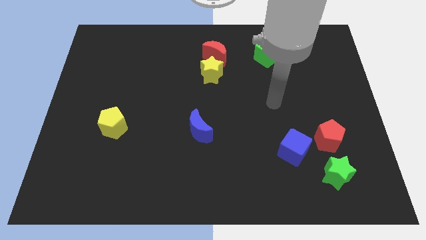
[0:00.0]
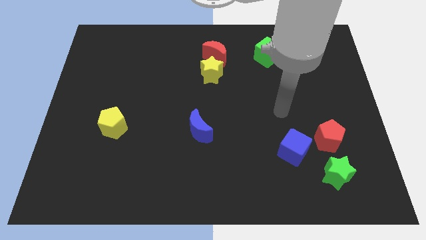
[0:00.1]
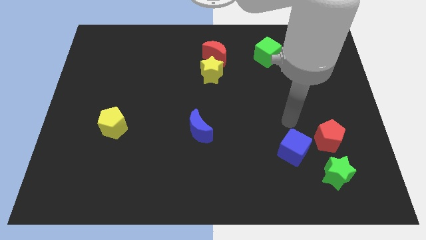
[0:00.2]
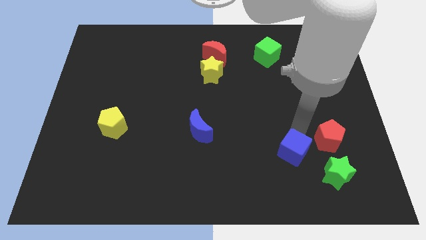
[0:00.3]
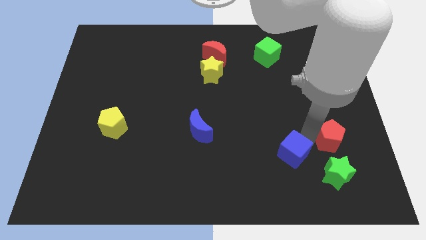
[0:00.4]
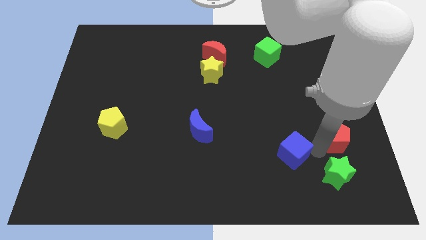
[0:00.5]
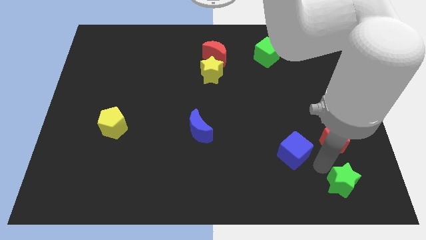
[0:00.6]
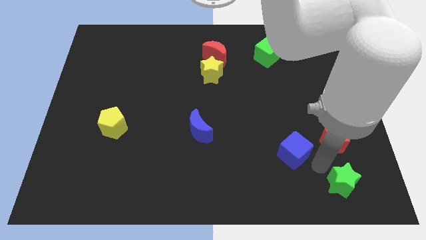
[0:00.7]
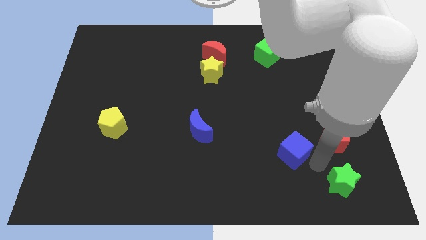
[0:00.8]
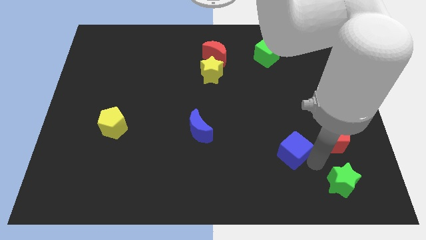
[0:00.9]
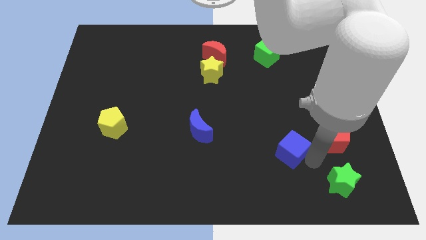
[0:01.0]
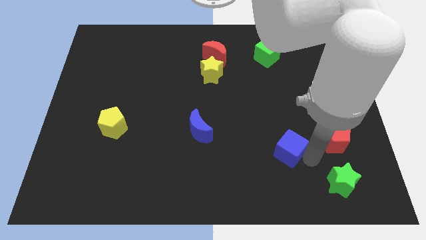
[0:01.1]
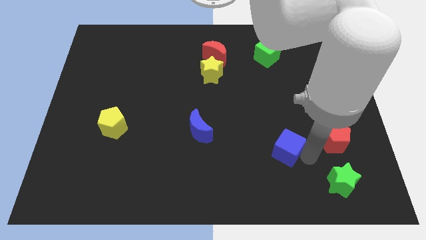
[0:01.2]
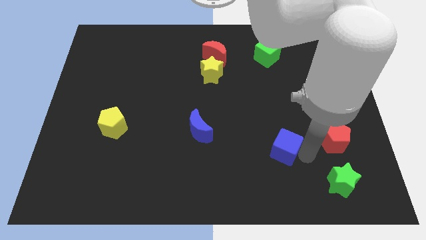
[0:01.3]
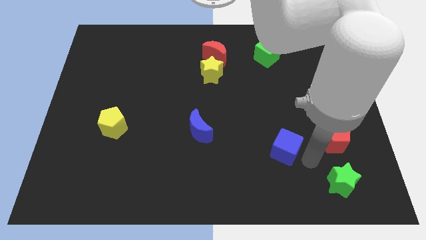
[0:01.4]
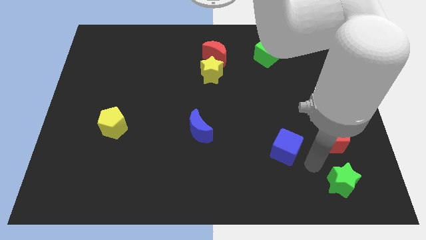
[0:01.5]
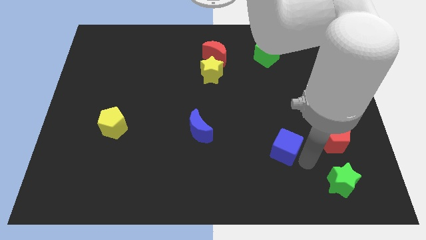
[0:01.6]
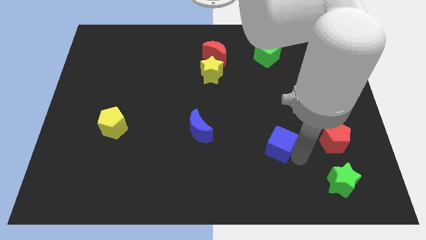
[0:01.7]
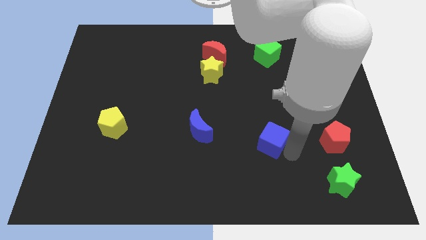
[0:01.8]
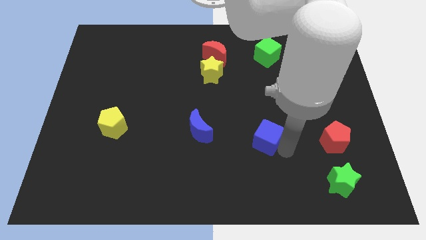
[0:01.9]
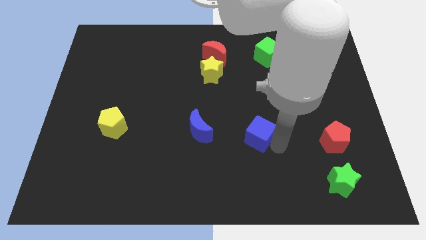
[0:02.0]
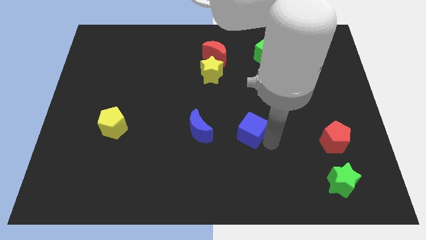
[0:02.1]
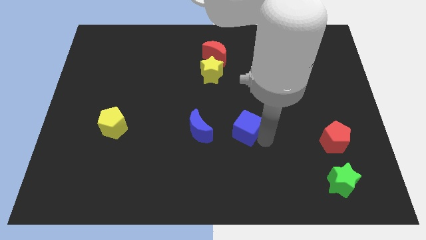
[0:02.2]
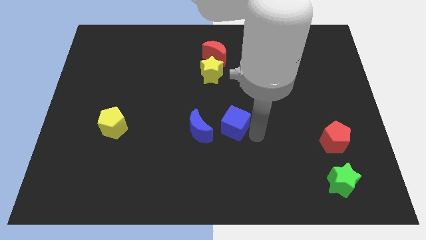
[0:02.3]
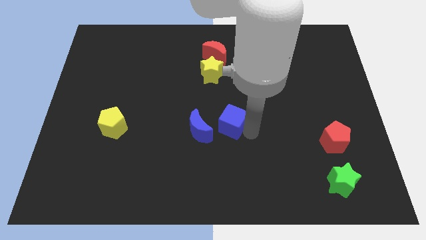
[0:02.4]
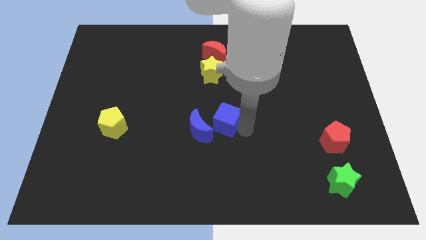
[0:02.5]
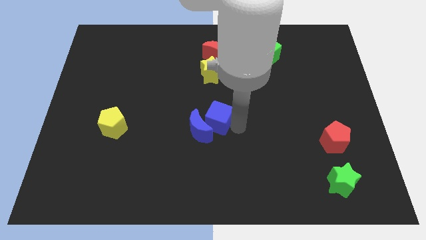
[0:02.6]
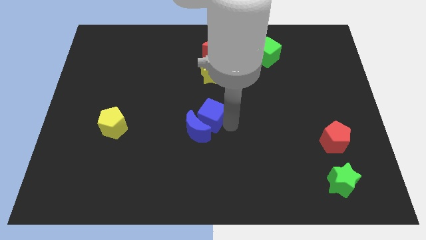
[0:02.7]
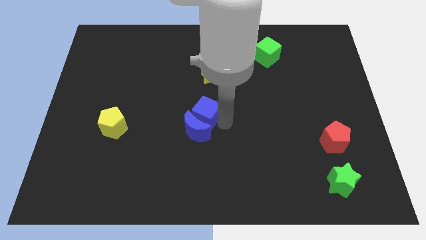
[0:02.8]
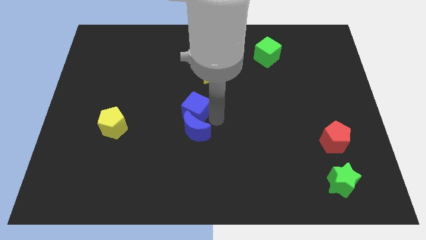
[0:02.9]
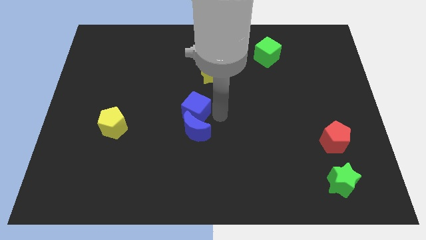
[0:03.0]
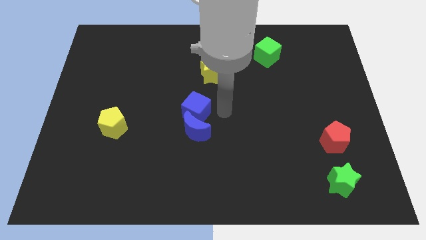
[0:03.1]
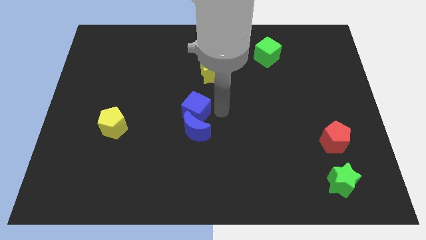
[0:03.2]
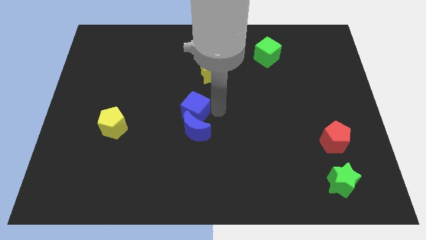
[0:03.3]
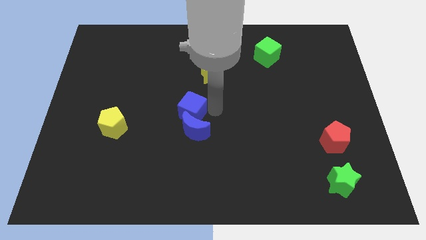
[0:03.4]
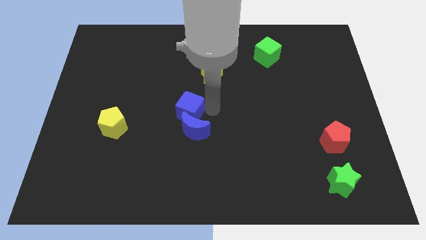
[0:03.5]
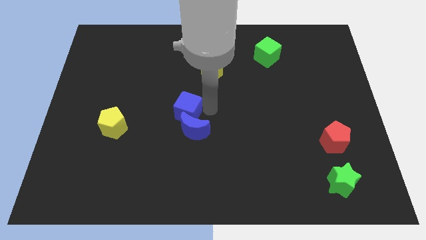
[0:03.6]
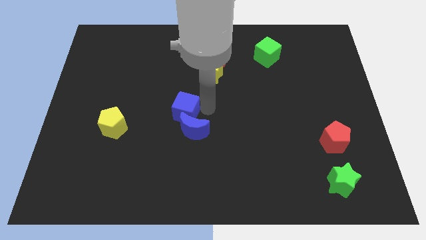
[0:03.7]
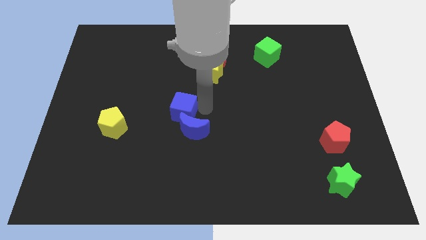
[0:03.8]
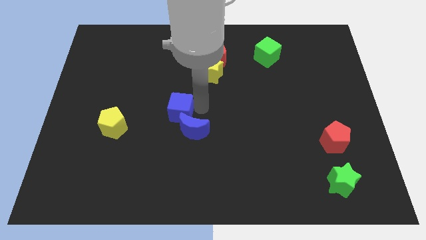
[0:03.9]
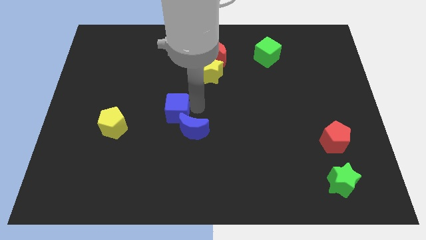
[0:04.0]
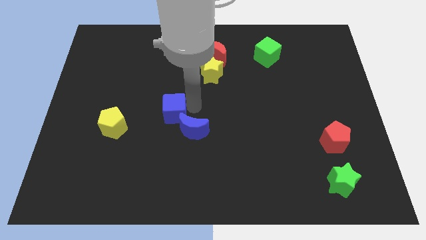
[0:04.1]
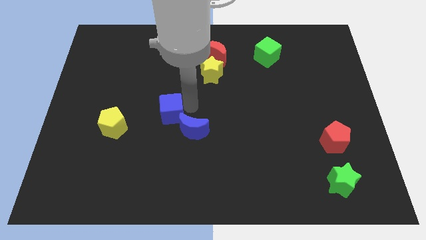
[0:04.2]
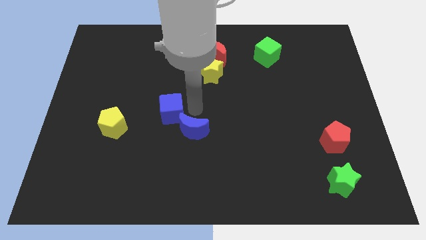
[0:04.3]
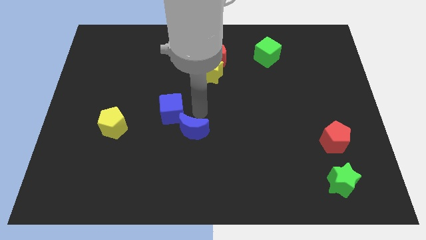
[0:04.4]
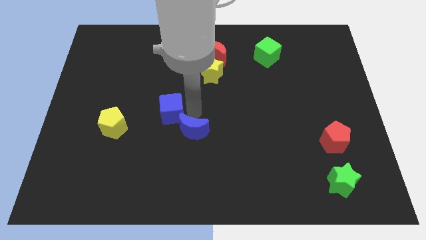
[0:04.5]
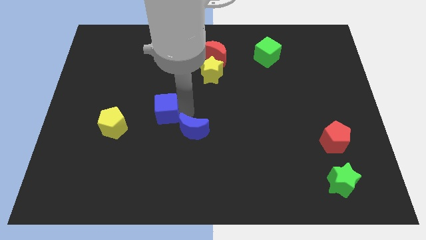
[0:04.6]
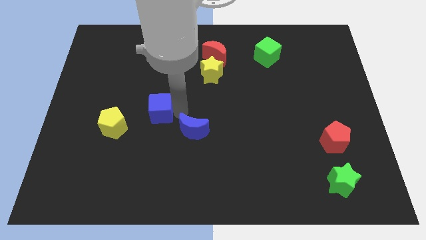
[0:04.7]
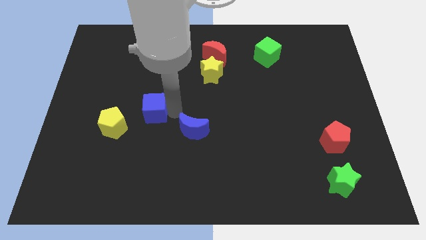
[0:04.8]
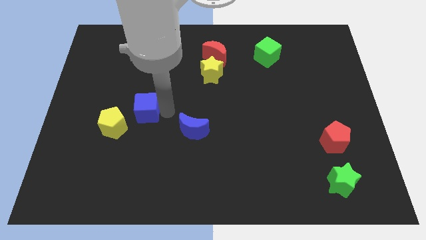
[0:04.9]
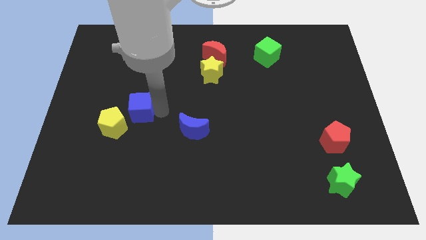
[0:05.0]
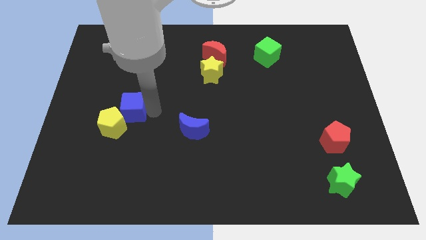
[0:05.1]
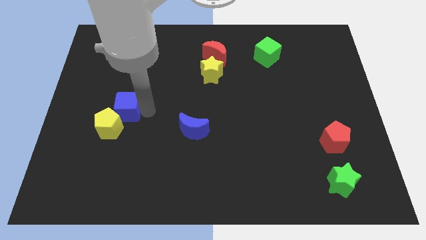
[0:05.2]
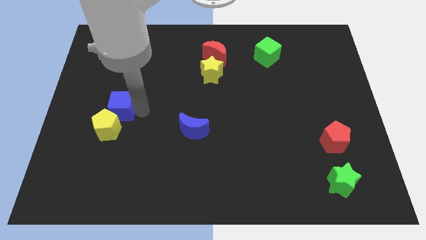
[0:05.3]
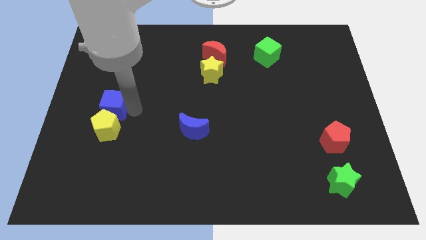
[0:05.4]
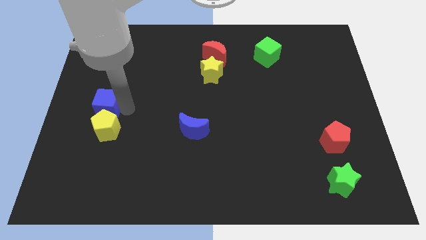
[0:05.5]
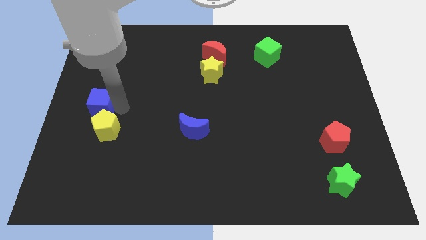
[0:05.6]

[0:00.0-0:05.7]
slide the blue cube to the left side

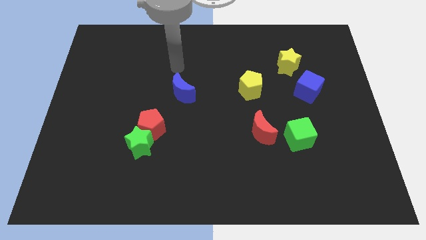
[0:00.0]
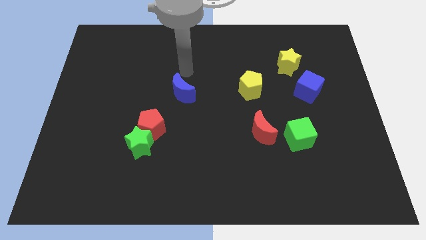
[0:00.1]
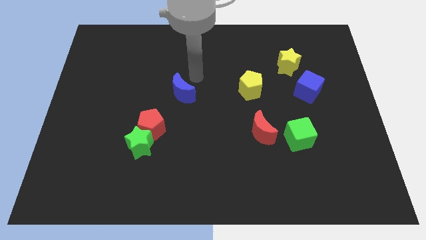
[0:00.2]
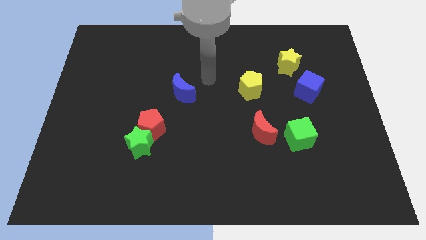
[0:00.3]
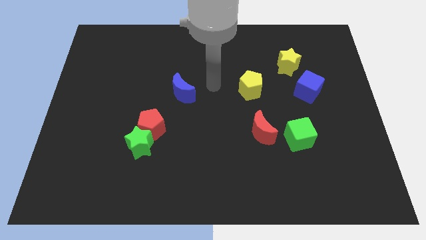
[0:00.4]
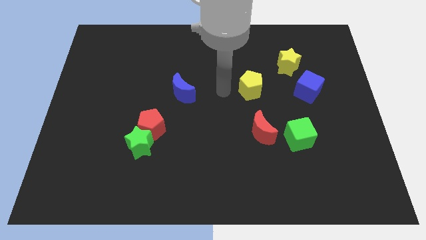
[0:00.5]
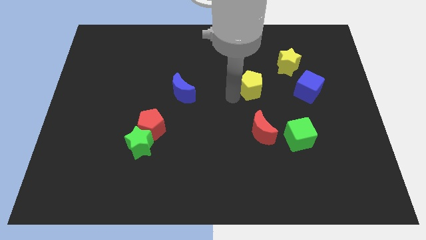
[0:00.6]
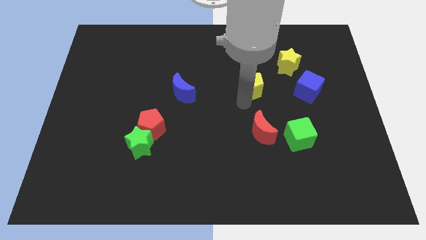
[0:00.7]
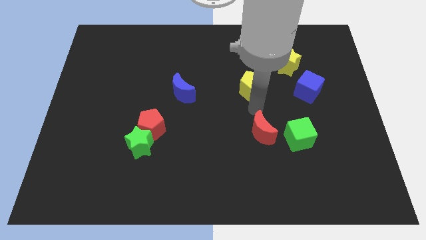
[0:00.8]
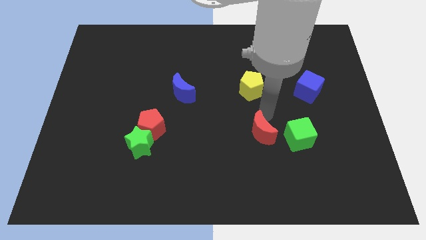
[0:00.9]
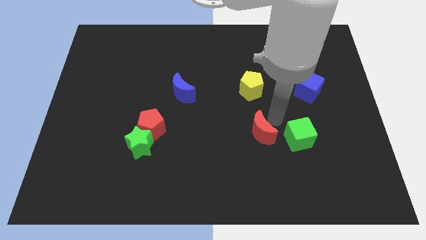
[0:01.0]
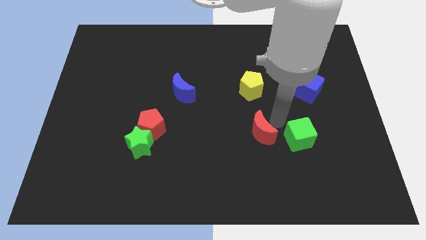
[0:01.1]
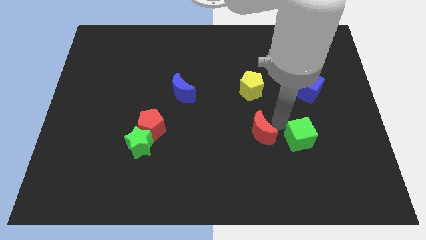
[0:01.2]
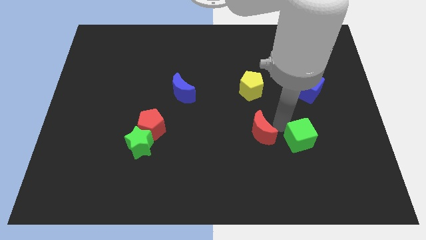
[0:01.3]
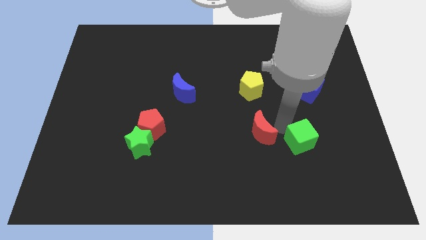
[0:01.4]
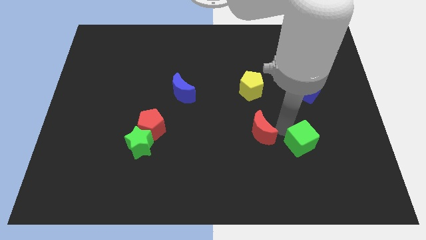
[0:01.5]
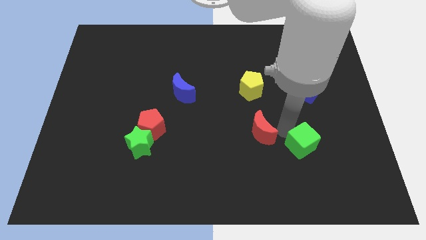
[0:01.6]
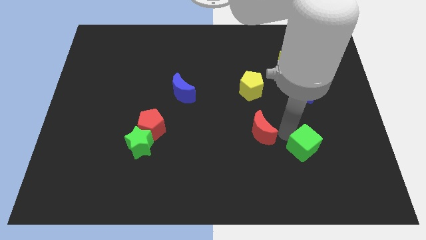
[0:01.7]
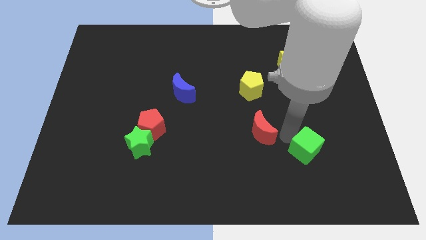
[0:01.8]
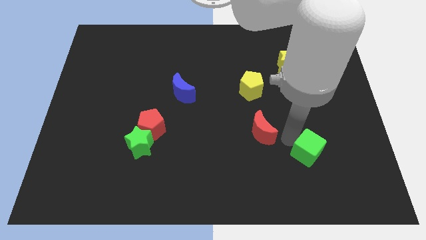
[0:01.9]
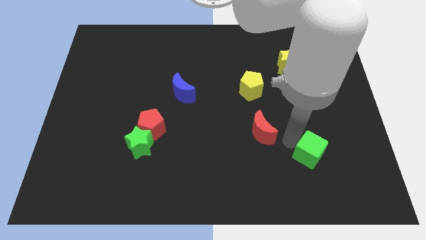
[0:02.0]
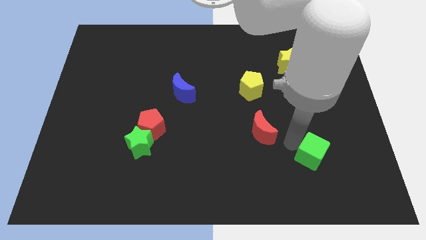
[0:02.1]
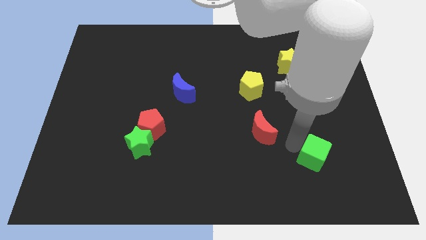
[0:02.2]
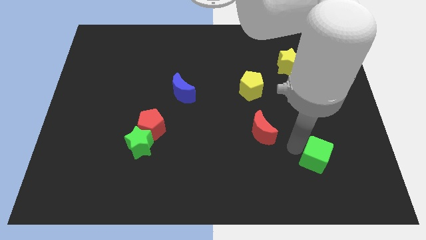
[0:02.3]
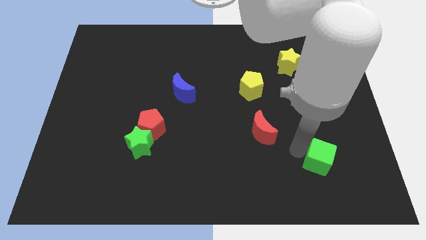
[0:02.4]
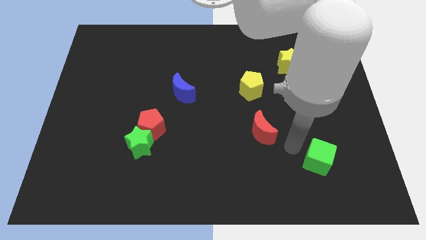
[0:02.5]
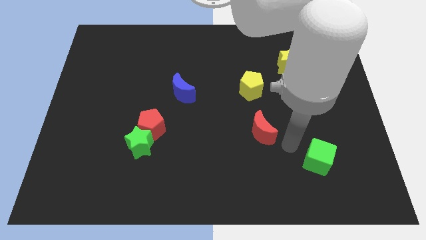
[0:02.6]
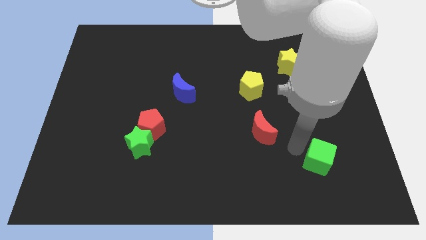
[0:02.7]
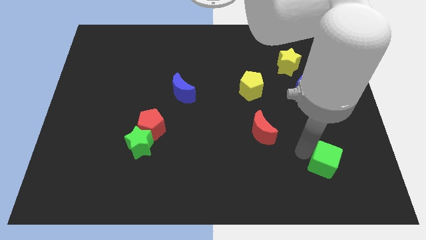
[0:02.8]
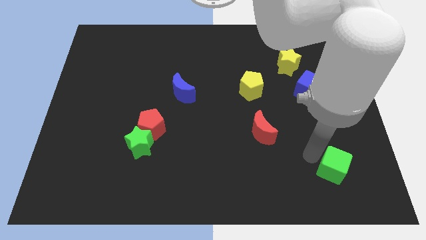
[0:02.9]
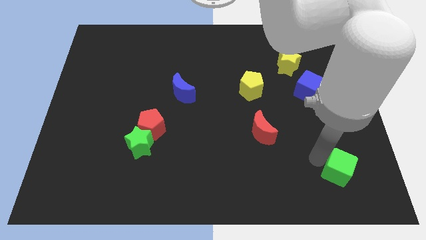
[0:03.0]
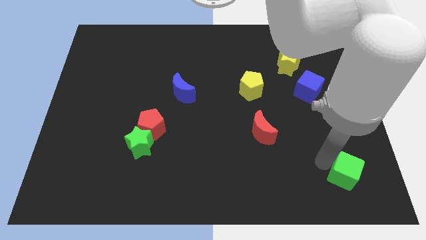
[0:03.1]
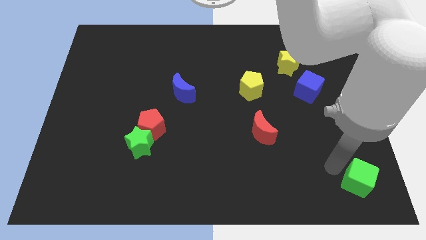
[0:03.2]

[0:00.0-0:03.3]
put the green cube to the bottom right
